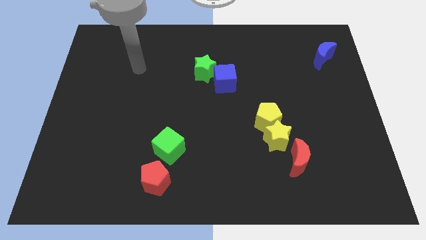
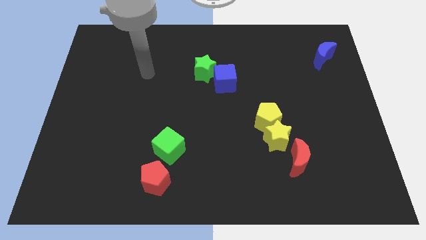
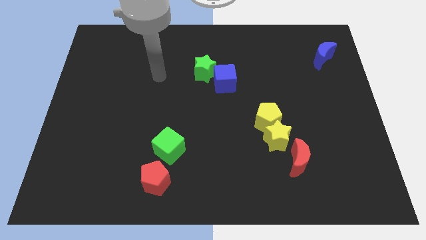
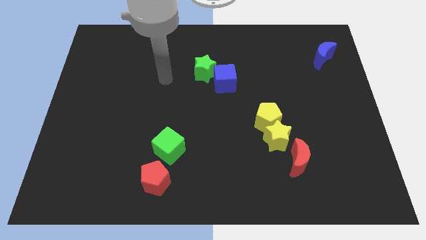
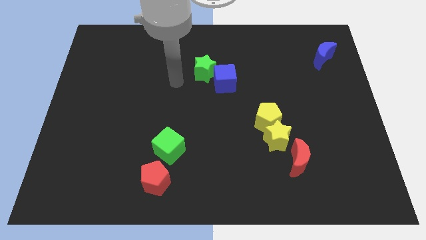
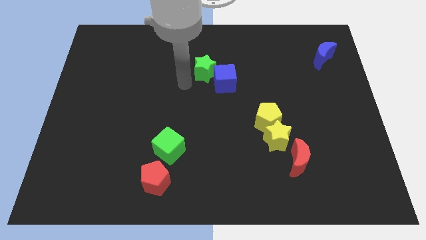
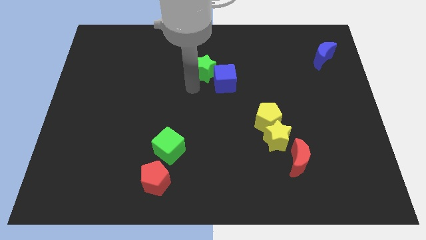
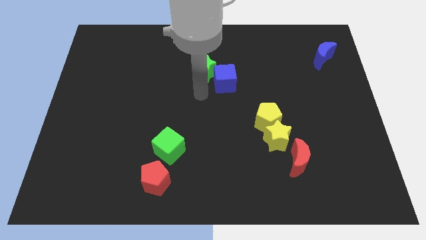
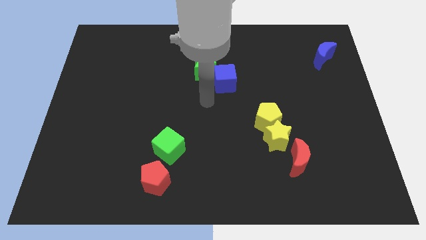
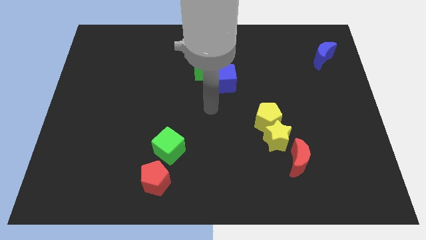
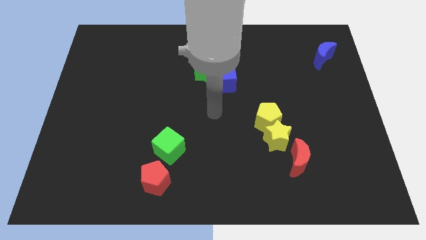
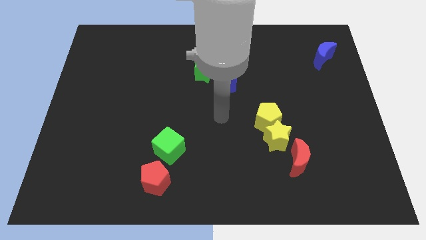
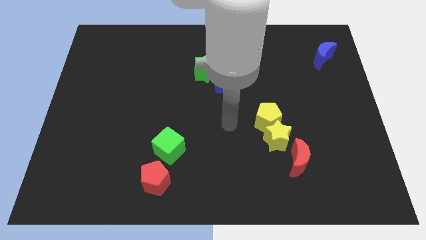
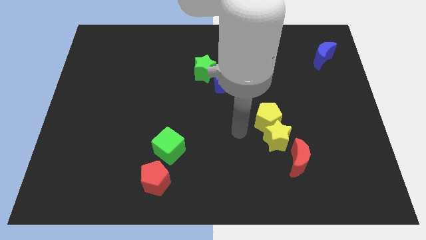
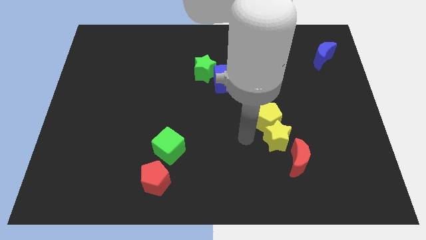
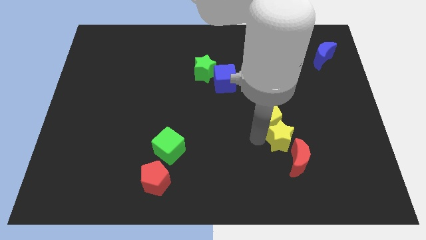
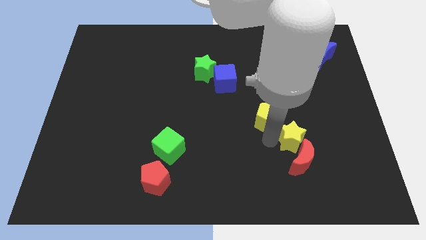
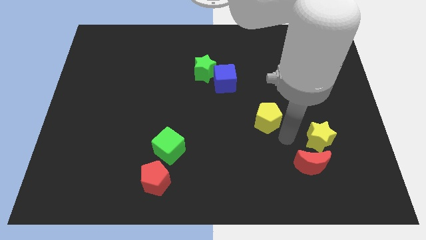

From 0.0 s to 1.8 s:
separate the yellow pentagon from the yellow star

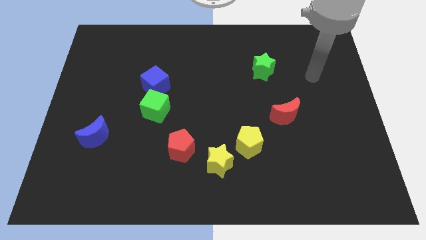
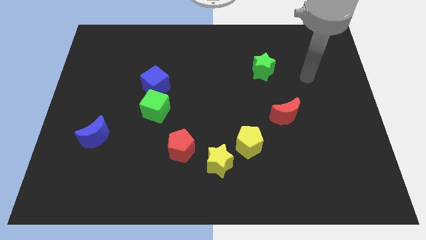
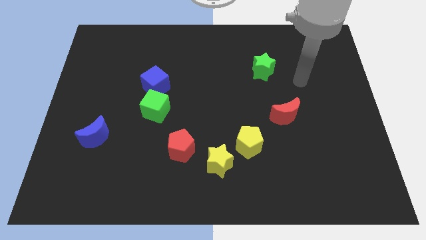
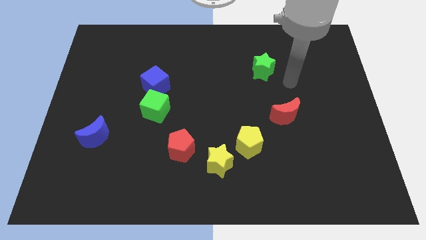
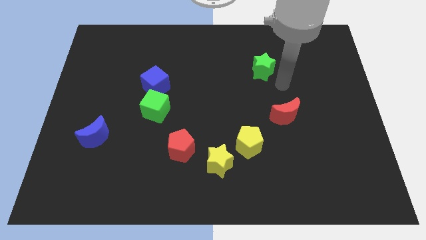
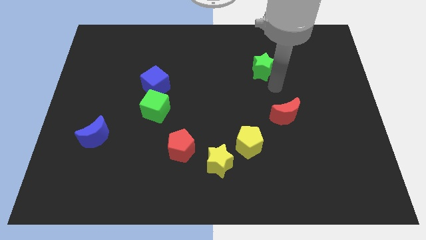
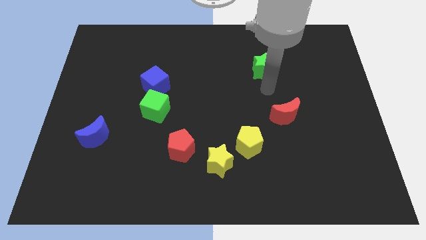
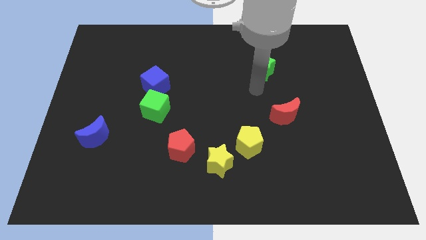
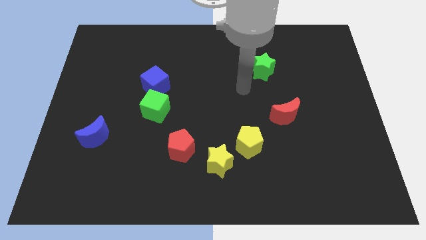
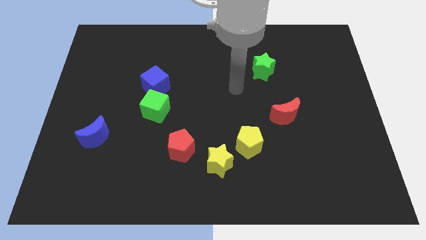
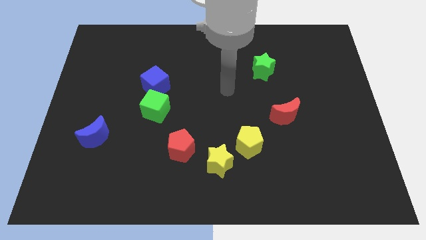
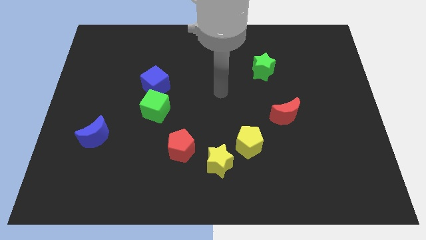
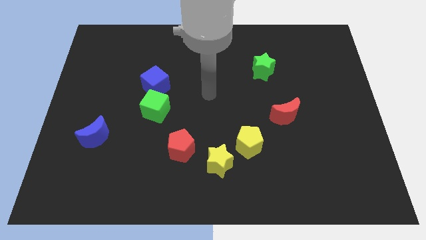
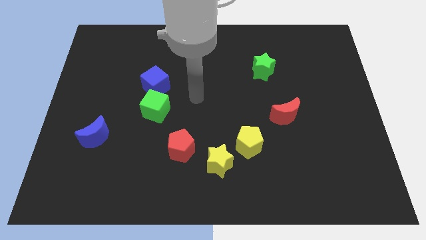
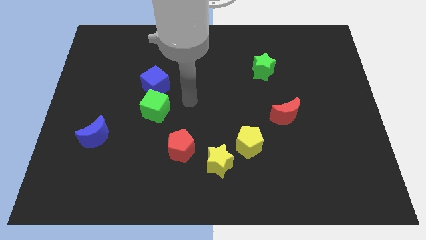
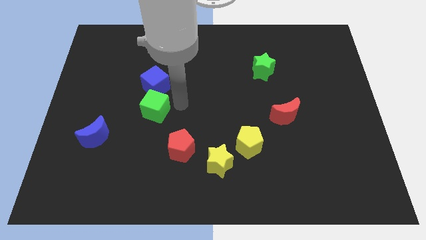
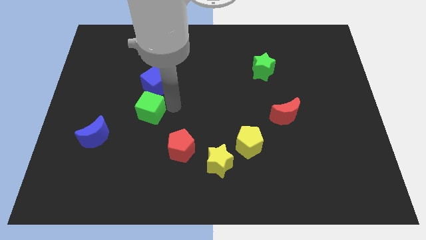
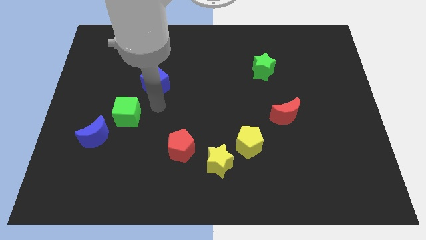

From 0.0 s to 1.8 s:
pull the blue cube apart from the green cube

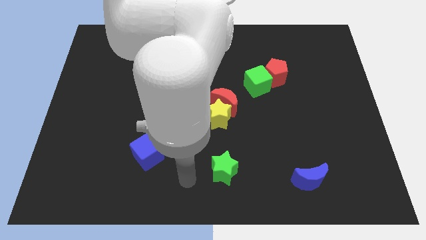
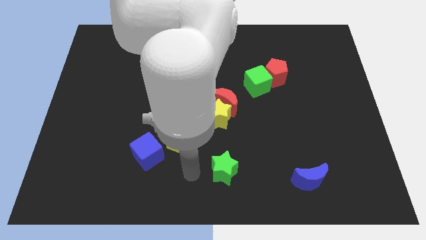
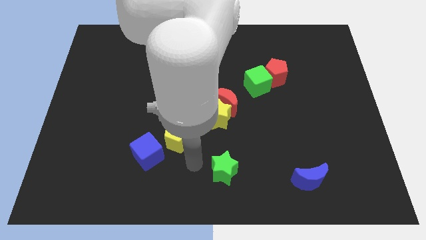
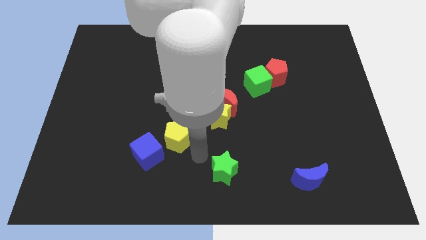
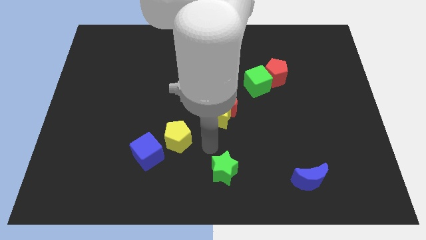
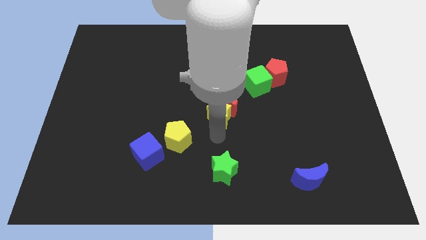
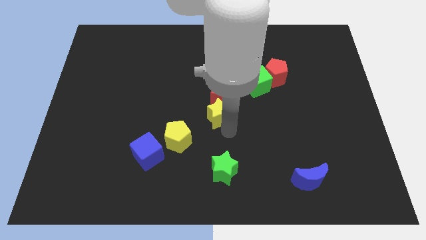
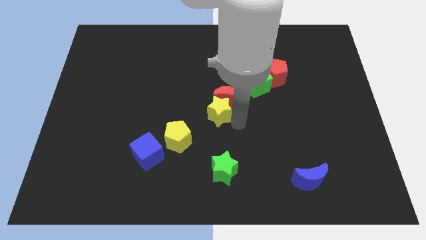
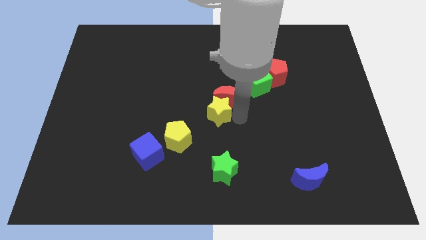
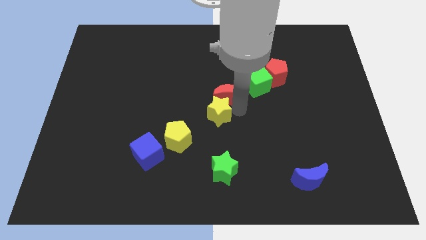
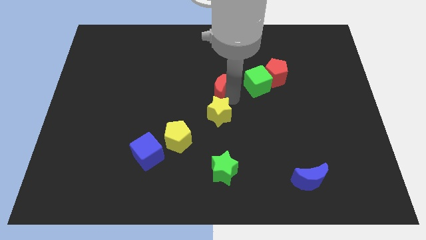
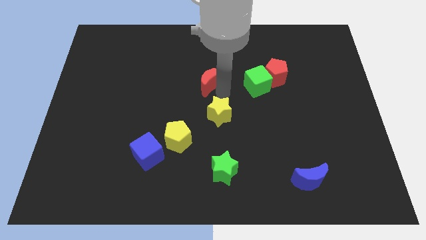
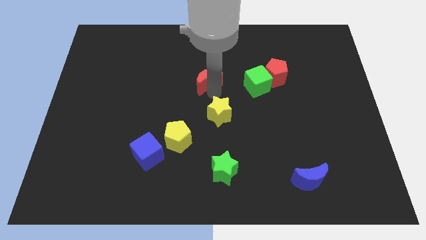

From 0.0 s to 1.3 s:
separate the yellow star from the red moon

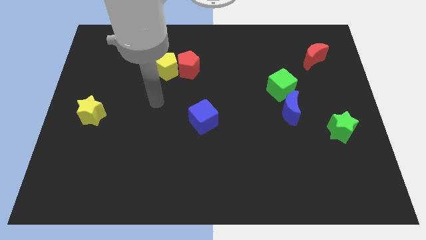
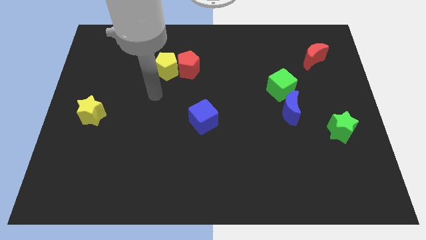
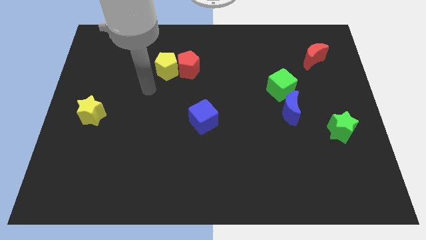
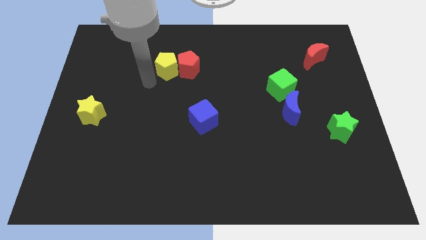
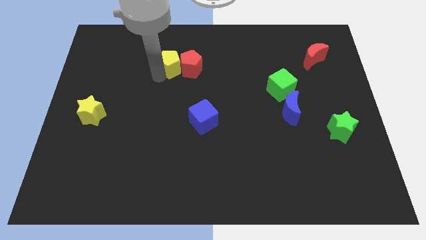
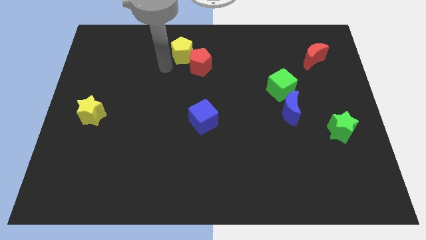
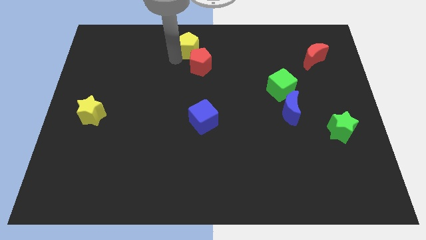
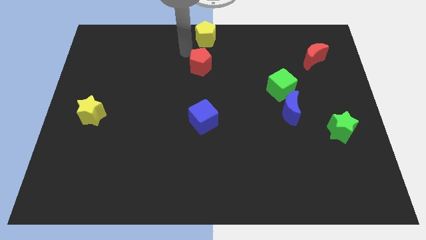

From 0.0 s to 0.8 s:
move the red pentagon away from the yellow pentagon

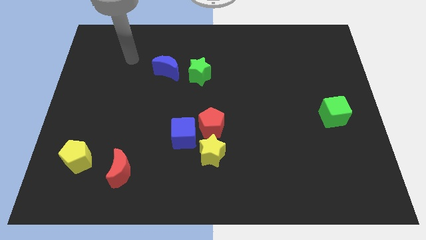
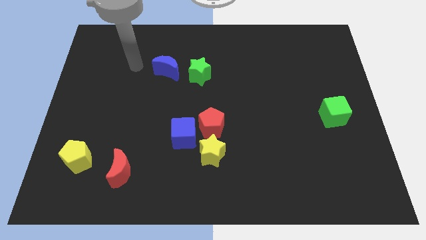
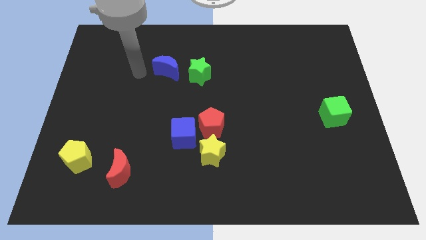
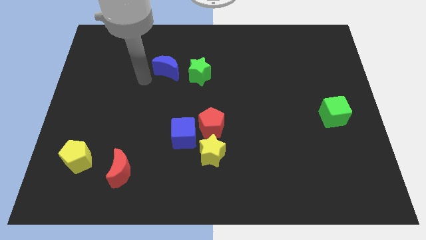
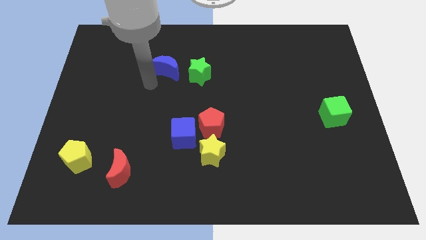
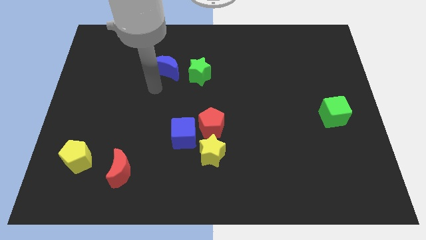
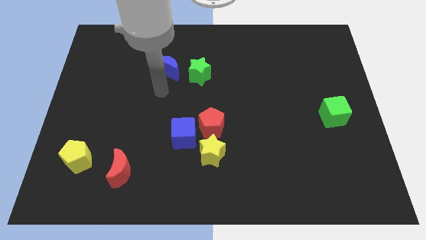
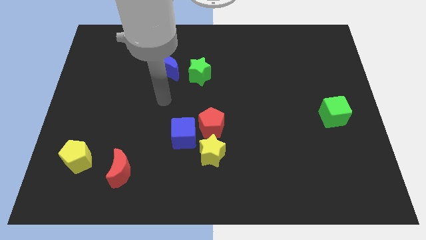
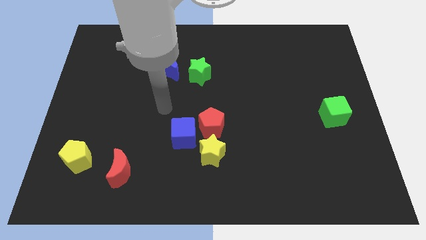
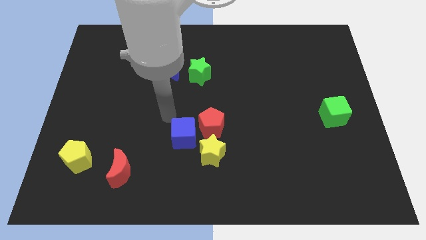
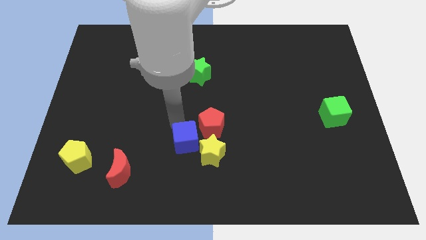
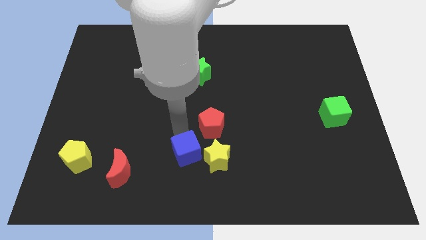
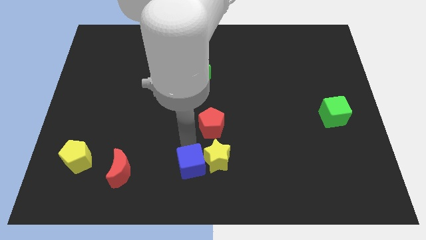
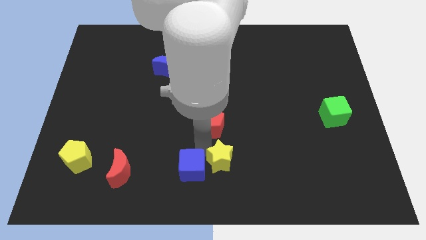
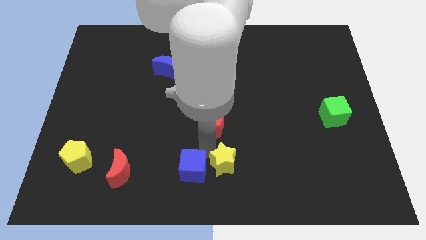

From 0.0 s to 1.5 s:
move the red pentagon away from the blue cube and yellow star

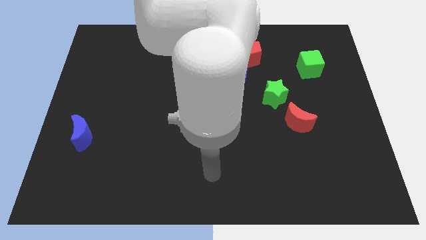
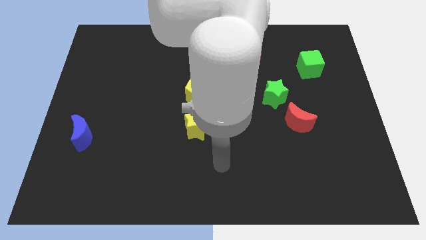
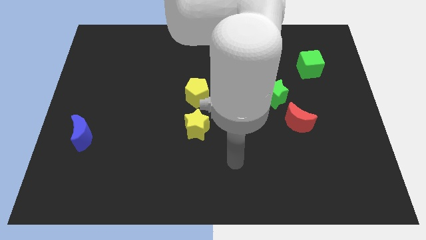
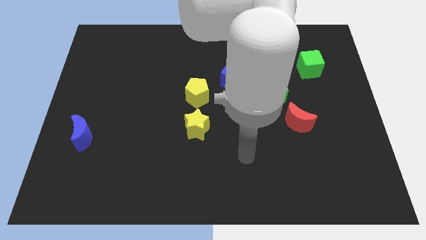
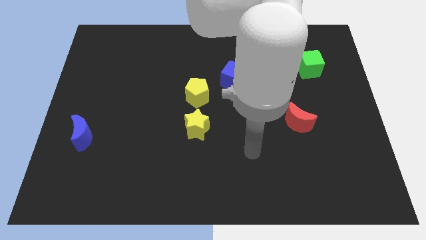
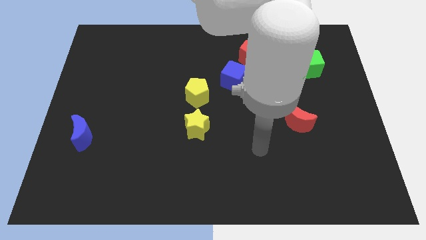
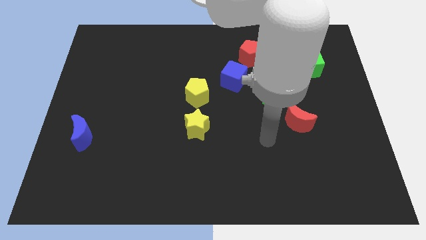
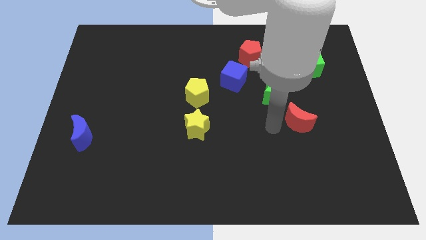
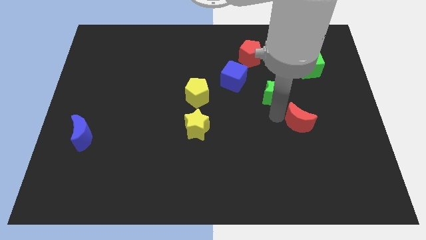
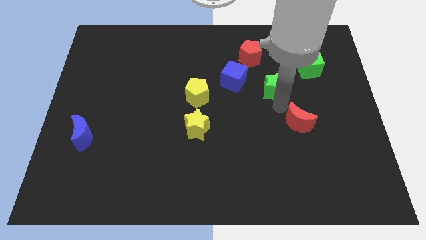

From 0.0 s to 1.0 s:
separate the red moon from the green star

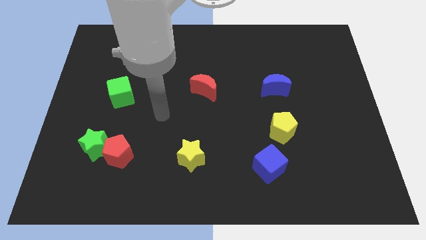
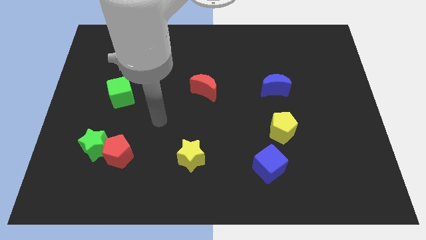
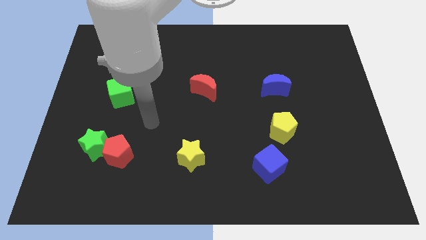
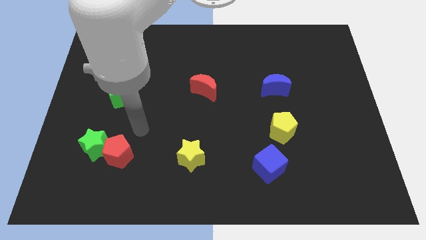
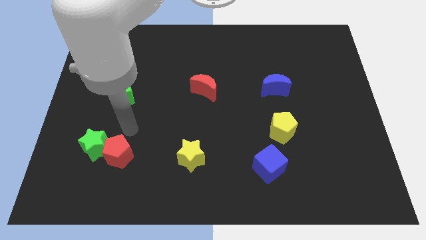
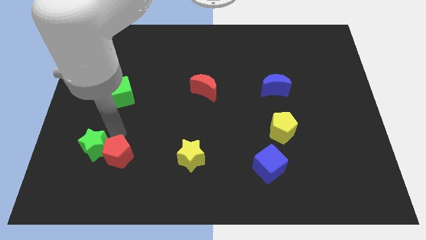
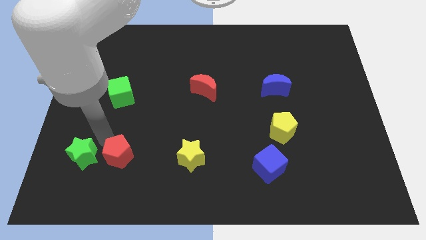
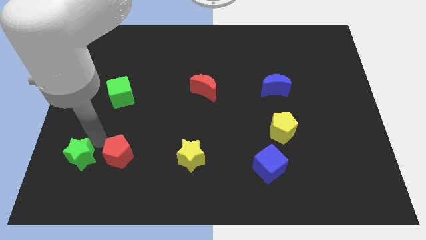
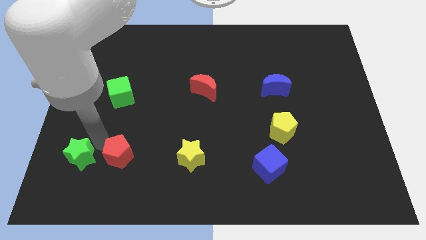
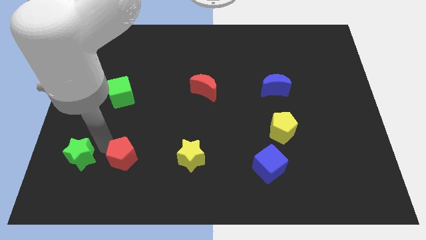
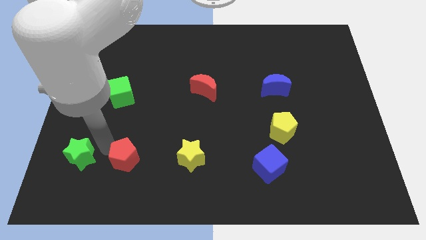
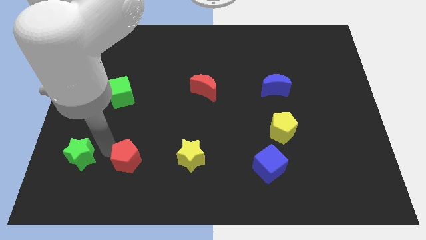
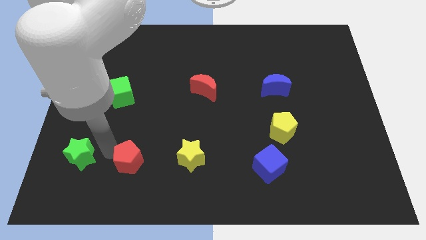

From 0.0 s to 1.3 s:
move the red pentagon away from the green star
